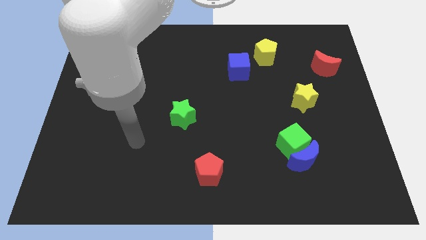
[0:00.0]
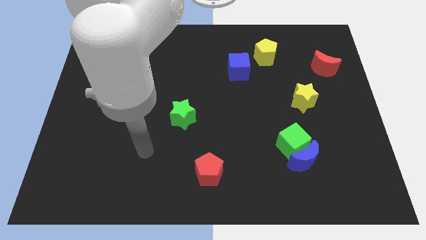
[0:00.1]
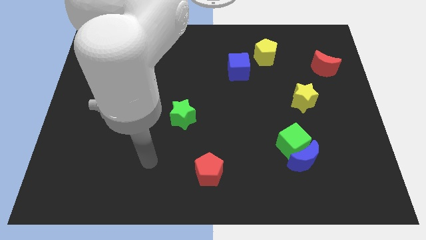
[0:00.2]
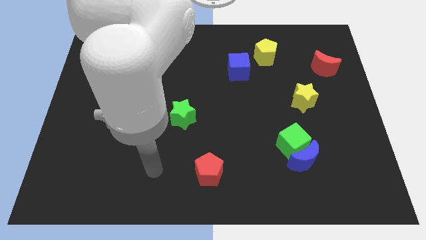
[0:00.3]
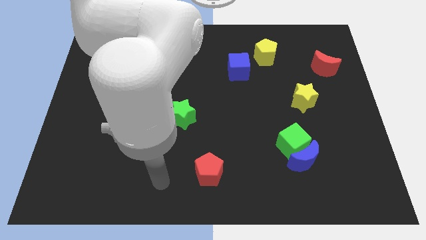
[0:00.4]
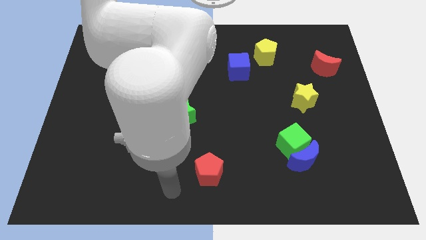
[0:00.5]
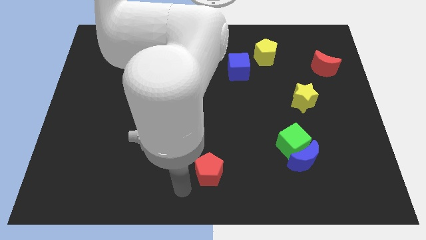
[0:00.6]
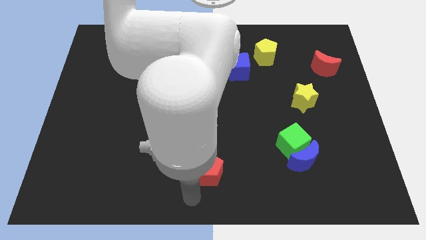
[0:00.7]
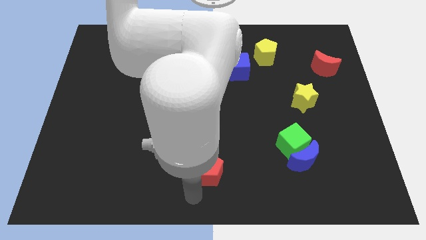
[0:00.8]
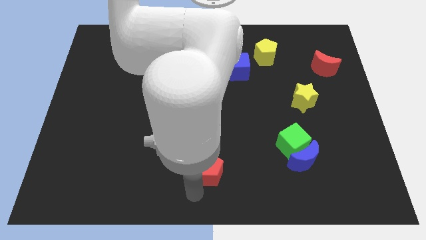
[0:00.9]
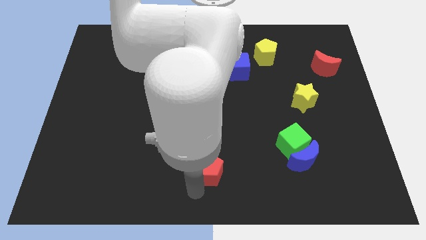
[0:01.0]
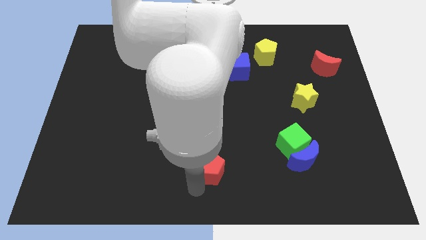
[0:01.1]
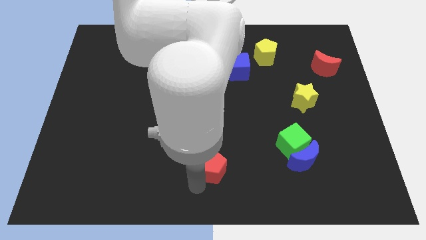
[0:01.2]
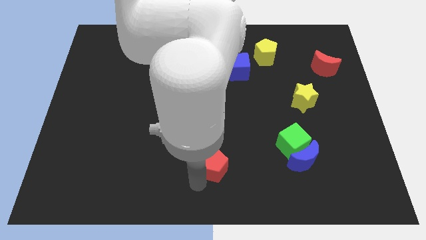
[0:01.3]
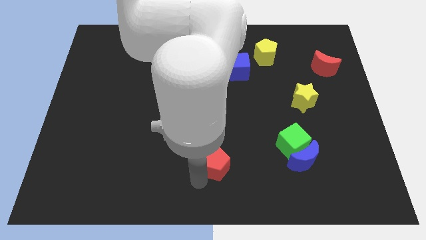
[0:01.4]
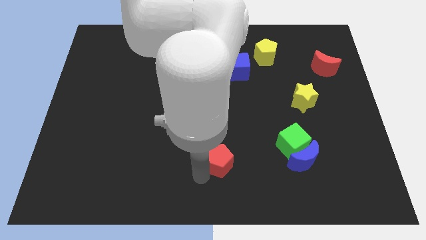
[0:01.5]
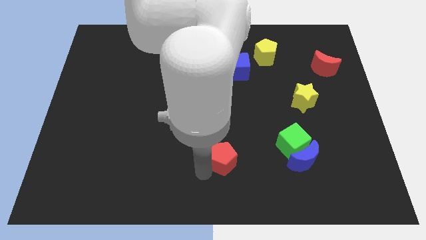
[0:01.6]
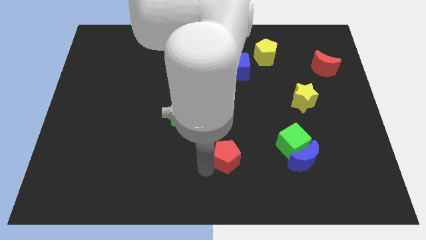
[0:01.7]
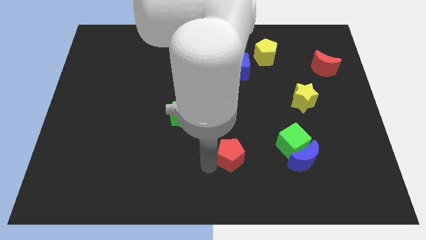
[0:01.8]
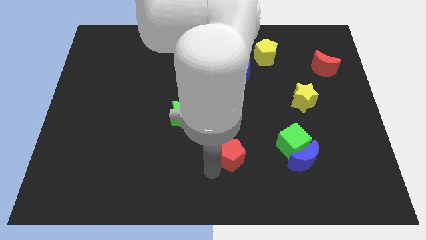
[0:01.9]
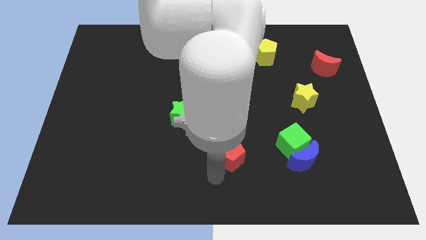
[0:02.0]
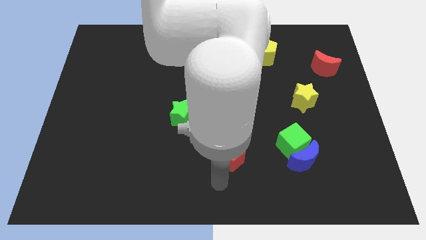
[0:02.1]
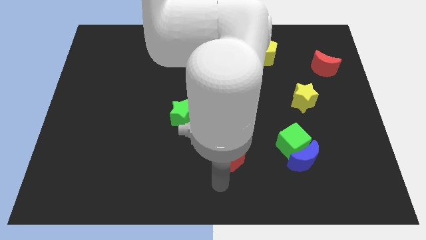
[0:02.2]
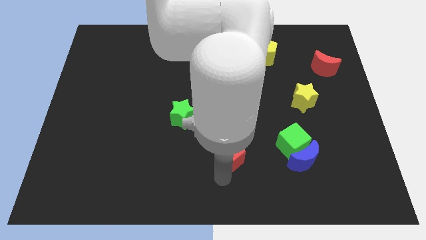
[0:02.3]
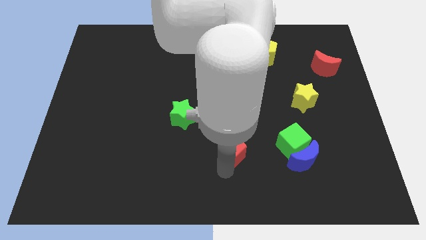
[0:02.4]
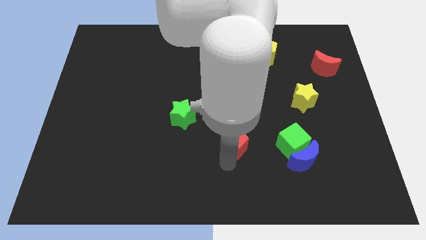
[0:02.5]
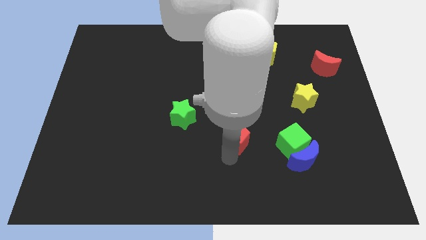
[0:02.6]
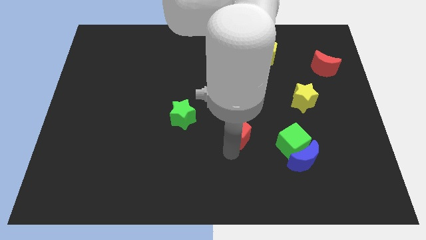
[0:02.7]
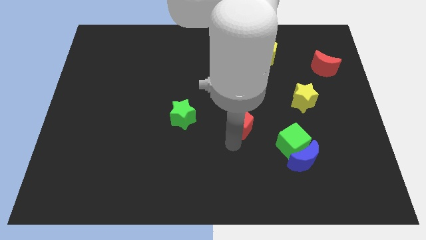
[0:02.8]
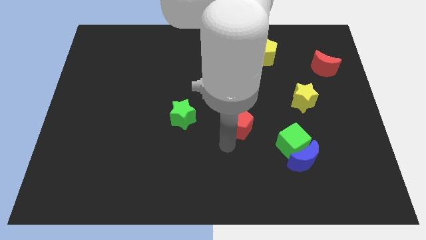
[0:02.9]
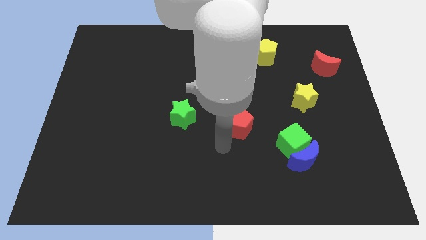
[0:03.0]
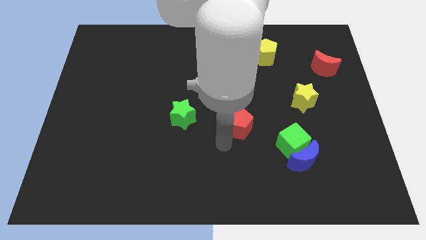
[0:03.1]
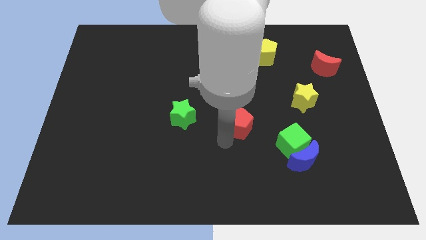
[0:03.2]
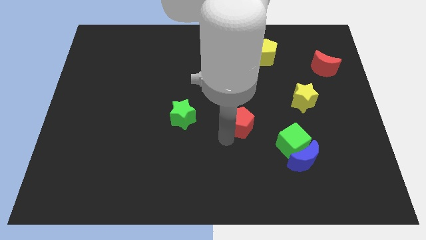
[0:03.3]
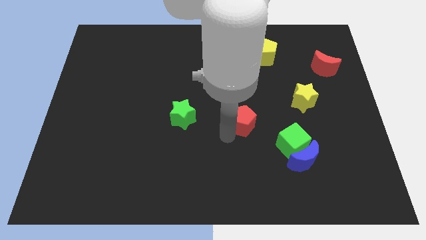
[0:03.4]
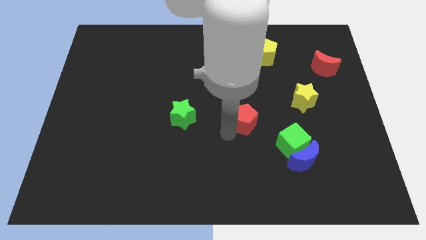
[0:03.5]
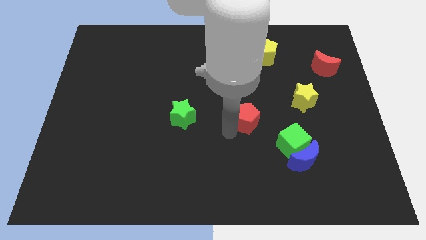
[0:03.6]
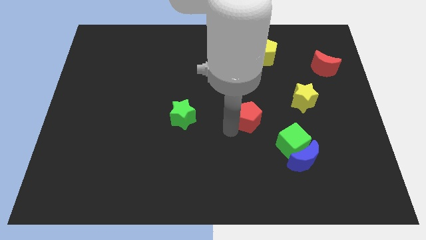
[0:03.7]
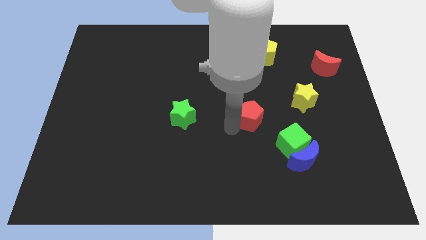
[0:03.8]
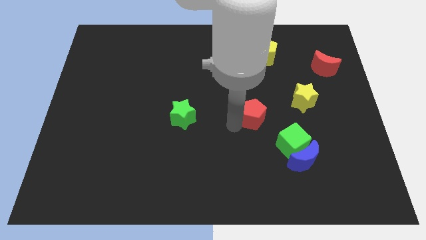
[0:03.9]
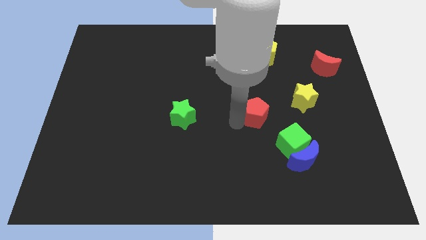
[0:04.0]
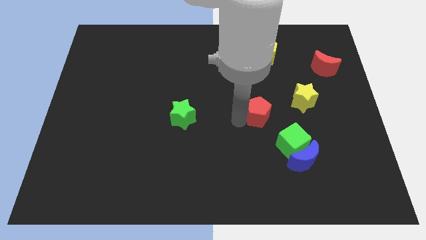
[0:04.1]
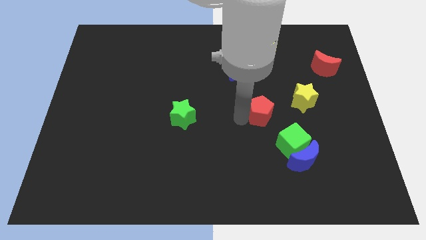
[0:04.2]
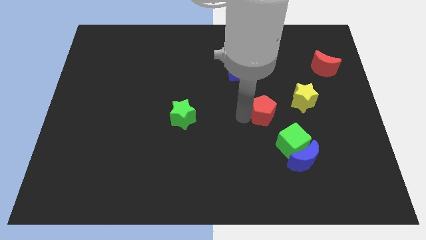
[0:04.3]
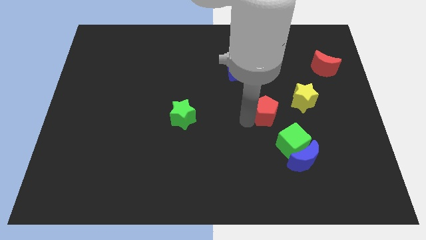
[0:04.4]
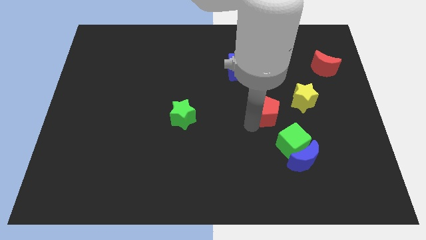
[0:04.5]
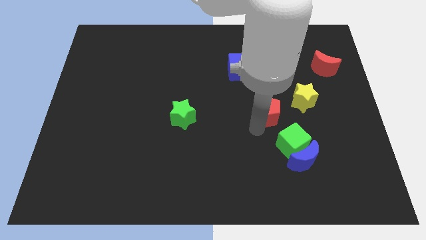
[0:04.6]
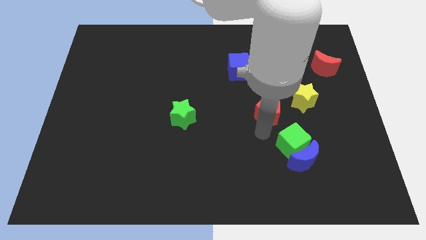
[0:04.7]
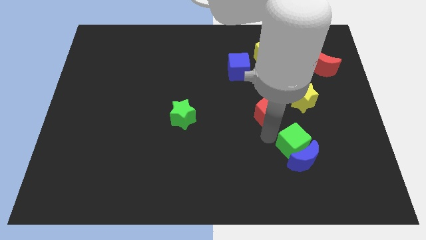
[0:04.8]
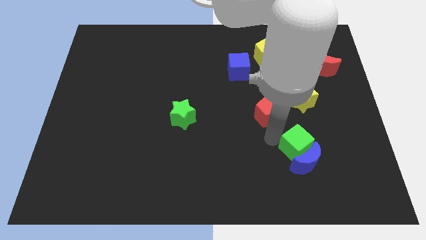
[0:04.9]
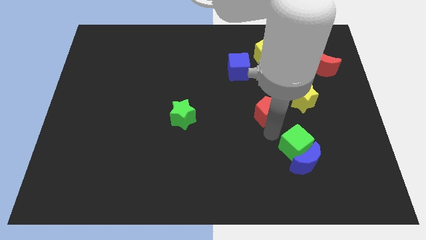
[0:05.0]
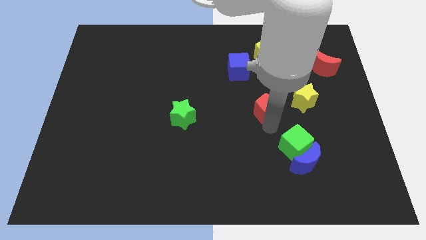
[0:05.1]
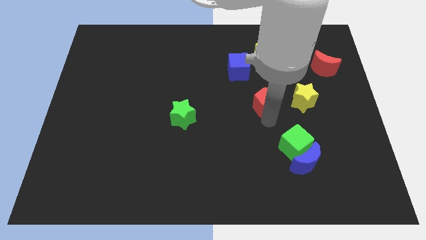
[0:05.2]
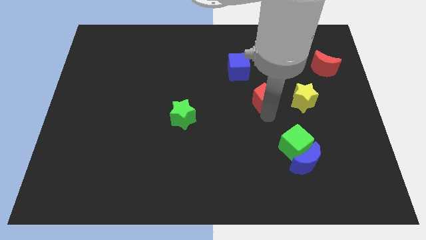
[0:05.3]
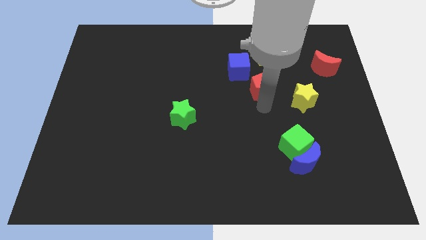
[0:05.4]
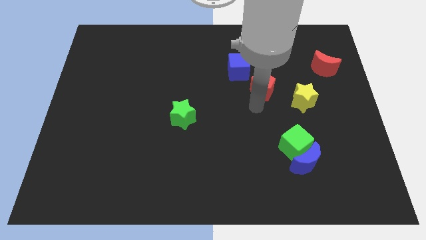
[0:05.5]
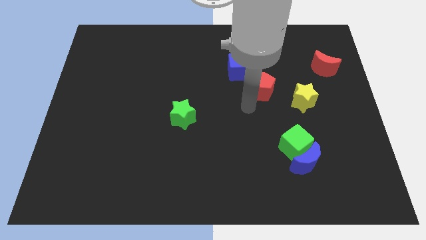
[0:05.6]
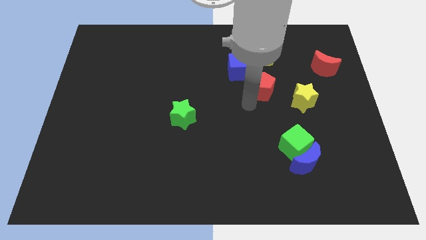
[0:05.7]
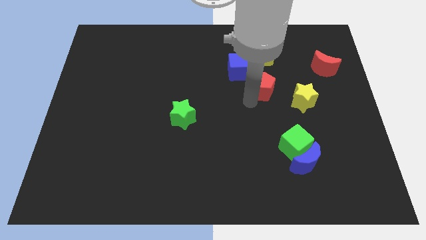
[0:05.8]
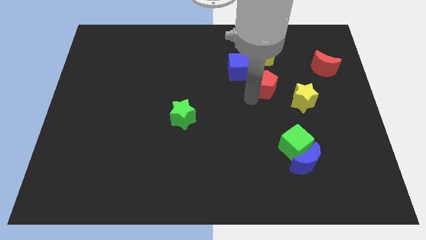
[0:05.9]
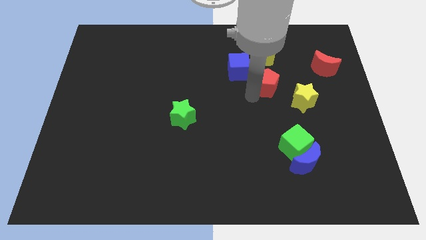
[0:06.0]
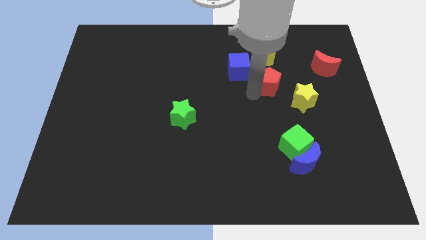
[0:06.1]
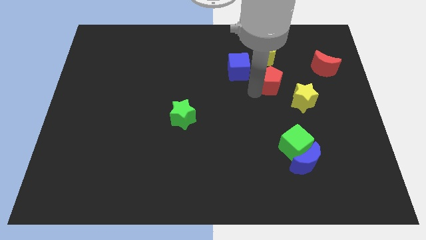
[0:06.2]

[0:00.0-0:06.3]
put the red pentagon to the right of the blue cube

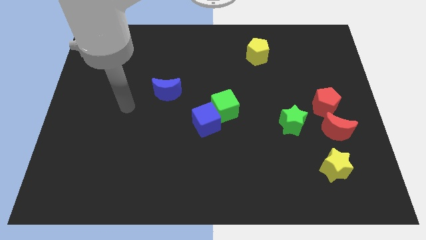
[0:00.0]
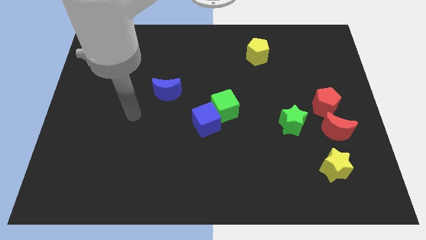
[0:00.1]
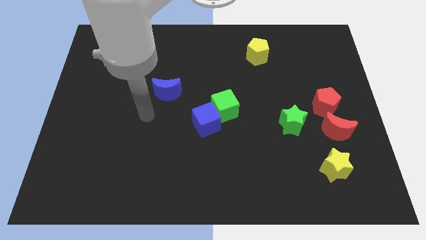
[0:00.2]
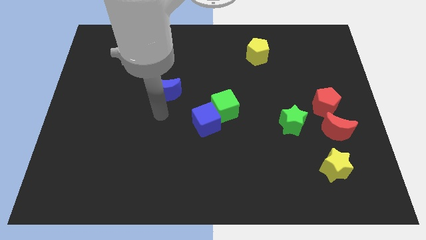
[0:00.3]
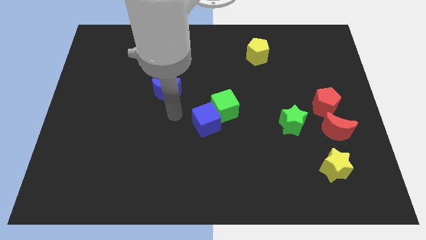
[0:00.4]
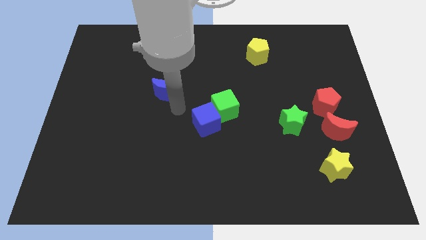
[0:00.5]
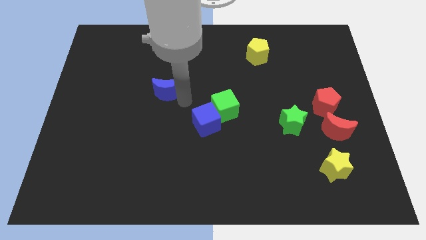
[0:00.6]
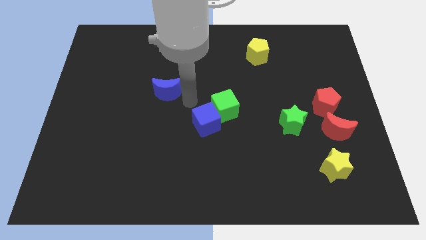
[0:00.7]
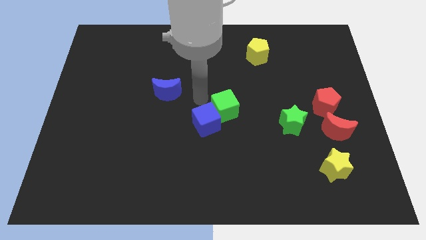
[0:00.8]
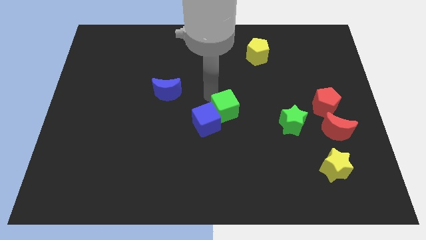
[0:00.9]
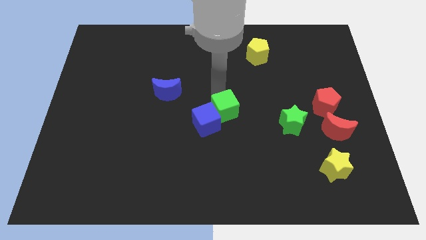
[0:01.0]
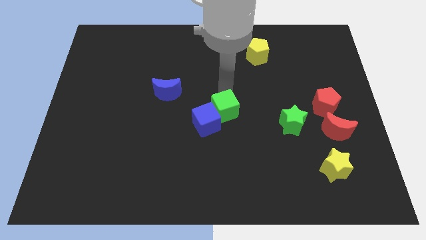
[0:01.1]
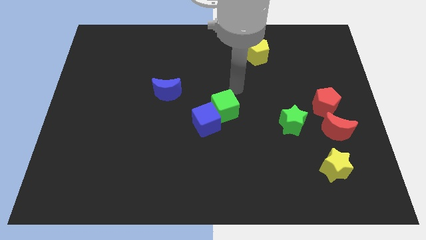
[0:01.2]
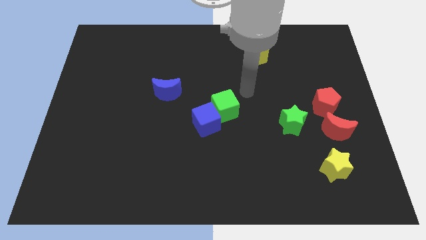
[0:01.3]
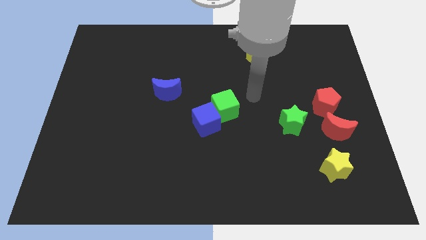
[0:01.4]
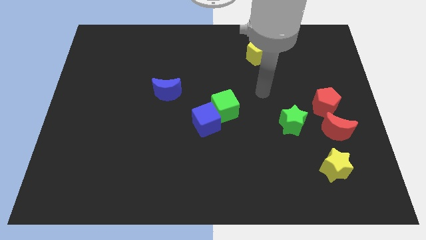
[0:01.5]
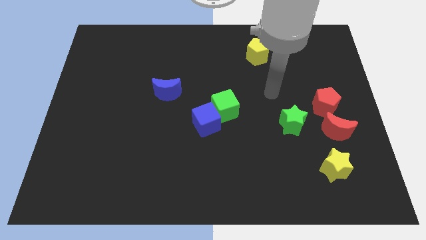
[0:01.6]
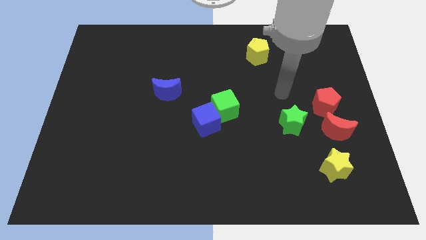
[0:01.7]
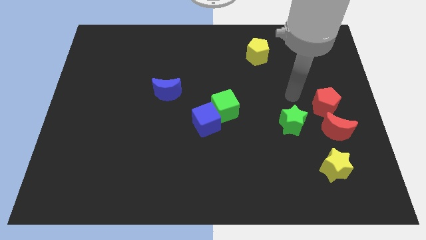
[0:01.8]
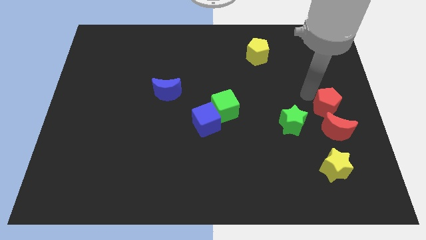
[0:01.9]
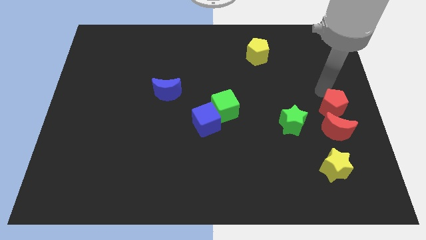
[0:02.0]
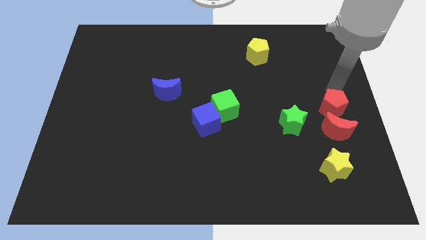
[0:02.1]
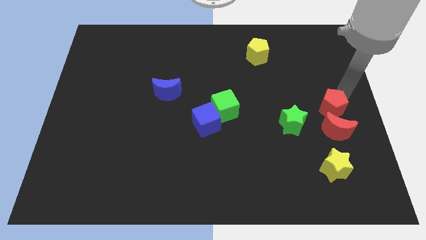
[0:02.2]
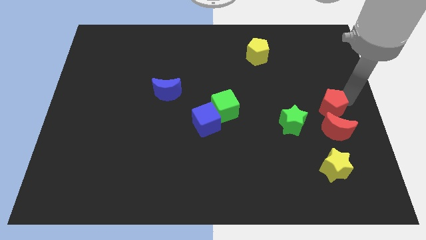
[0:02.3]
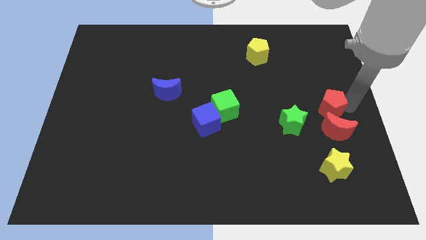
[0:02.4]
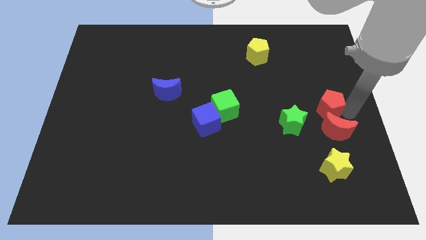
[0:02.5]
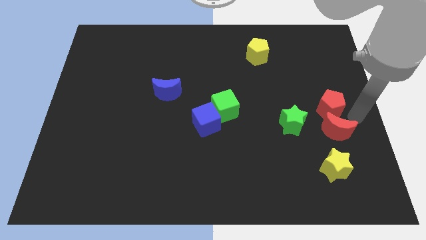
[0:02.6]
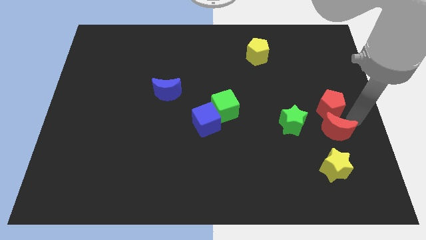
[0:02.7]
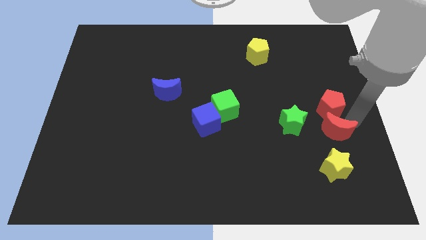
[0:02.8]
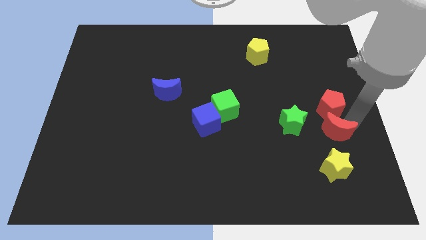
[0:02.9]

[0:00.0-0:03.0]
move the red moon diagonally down and to the right of the green star
